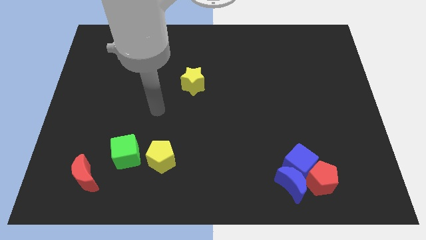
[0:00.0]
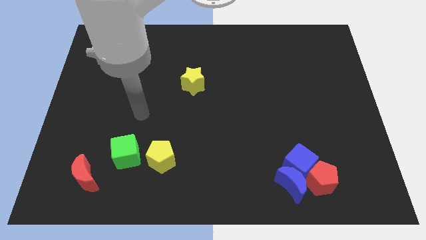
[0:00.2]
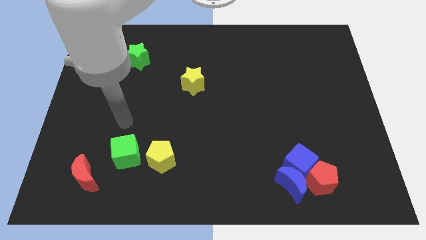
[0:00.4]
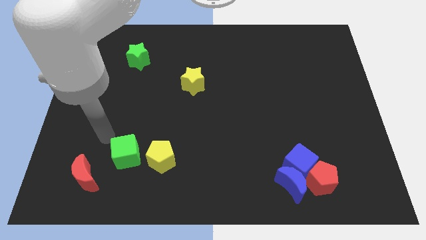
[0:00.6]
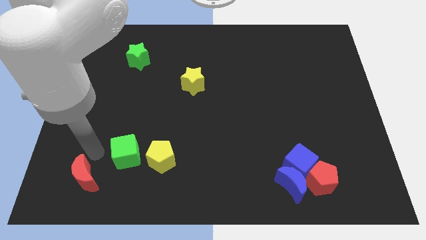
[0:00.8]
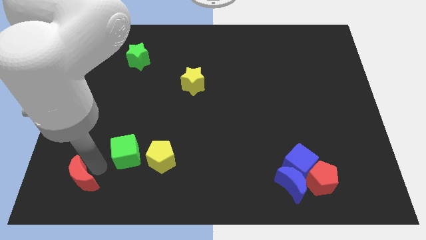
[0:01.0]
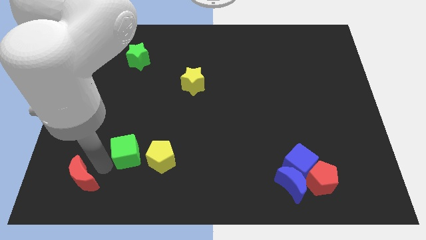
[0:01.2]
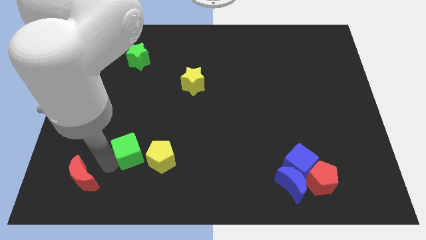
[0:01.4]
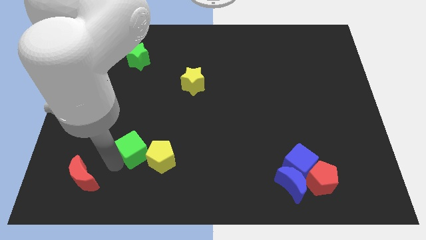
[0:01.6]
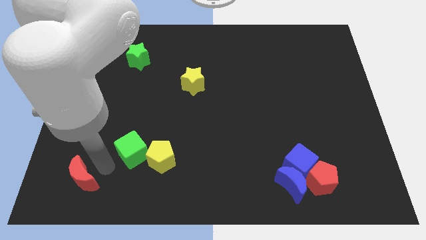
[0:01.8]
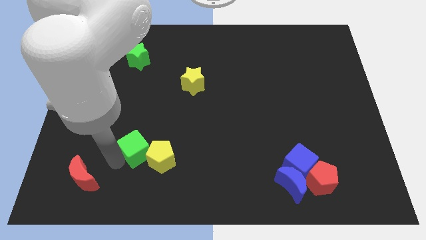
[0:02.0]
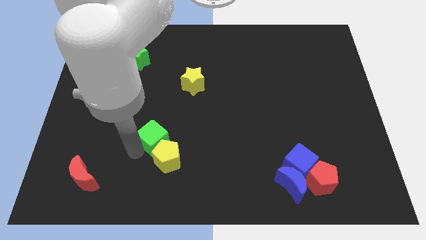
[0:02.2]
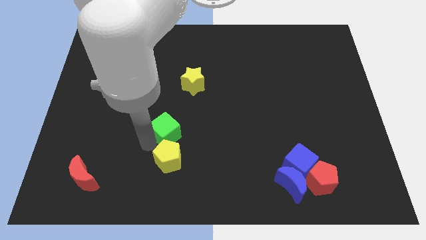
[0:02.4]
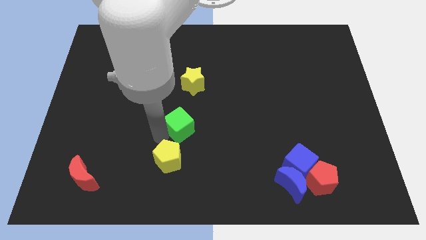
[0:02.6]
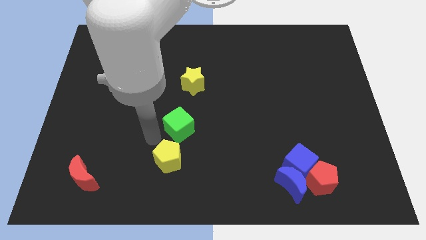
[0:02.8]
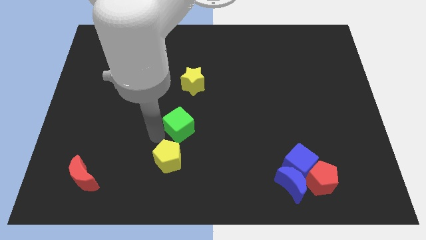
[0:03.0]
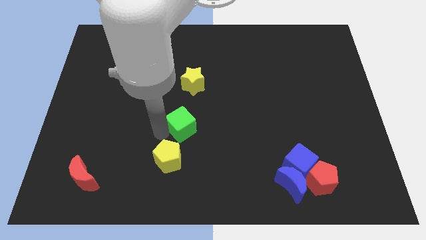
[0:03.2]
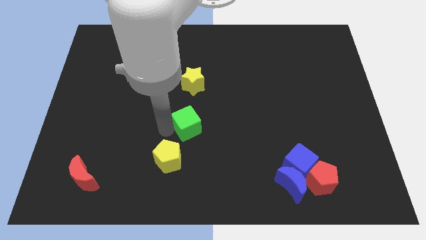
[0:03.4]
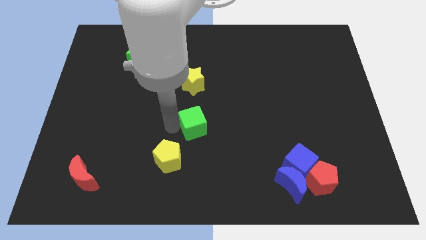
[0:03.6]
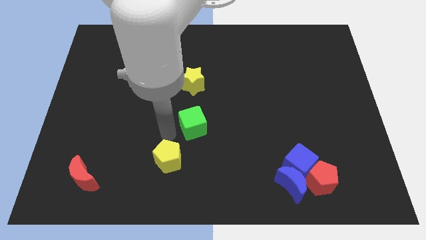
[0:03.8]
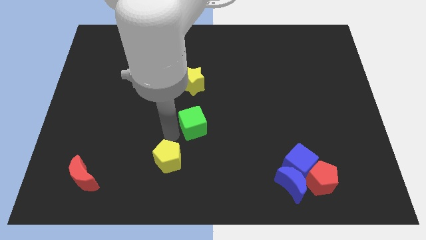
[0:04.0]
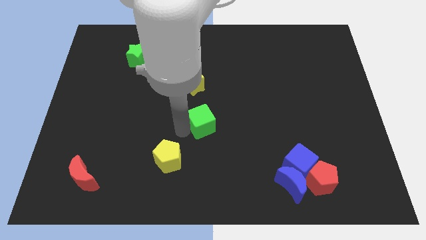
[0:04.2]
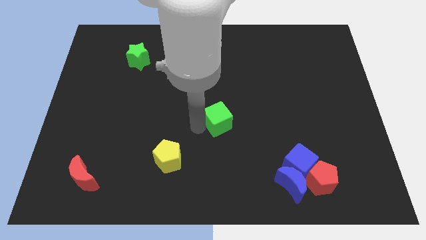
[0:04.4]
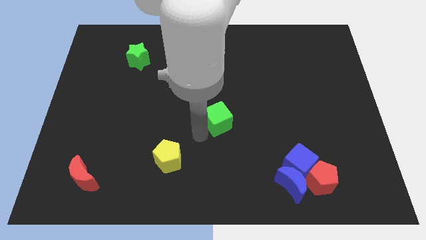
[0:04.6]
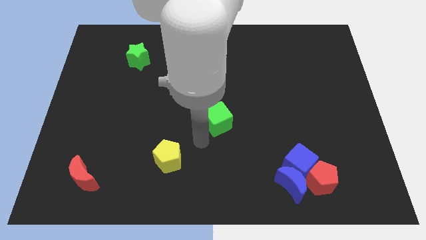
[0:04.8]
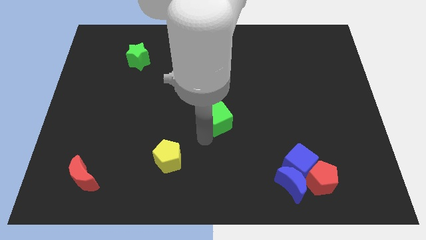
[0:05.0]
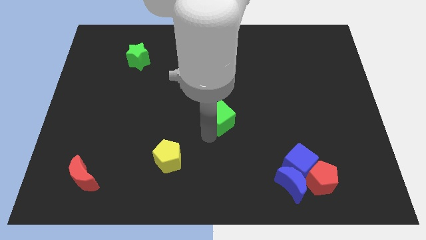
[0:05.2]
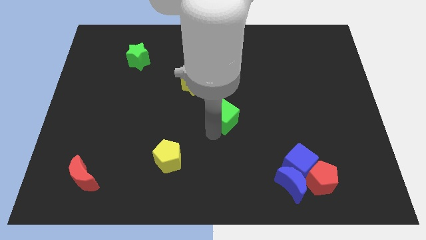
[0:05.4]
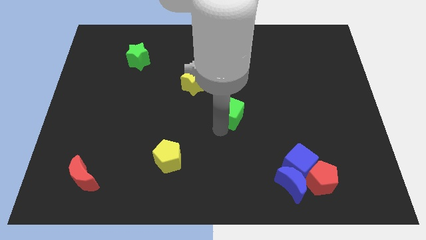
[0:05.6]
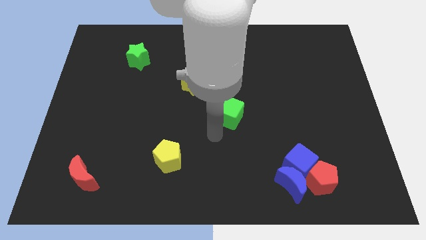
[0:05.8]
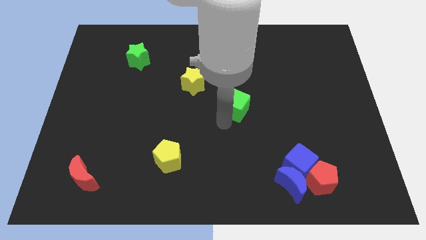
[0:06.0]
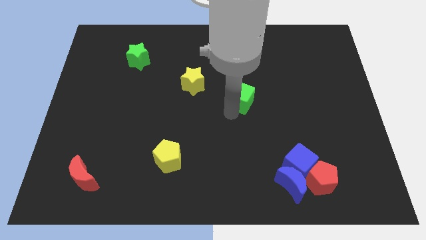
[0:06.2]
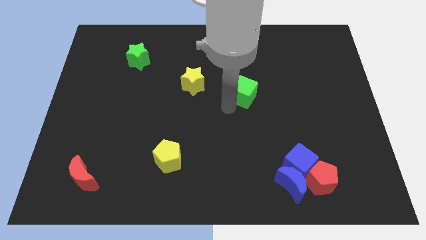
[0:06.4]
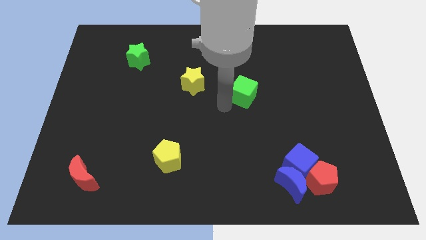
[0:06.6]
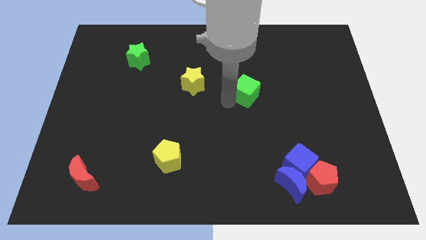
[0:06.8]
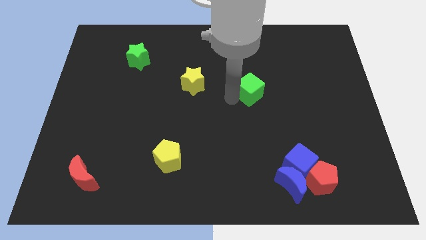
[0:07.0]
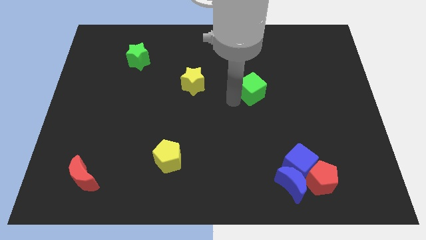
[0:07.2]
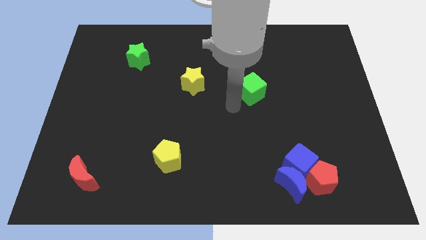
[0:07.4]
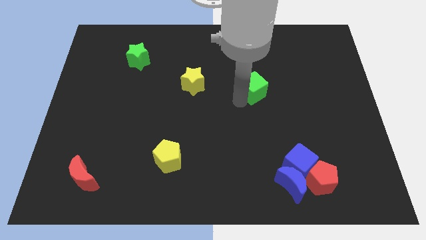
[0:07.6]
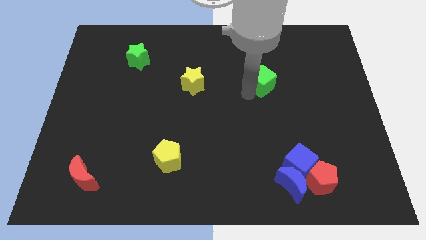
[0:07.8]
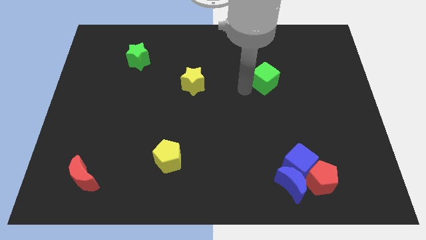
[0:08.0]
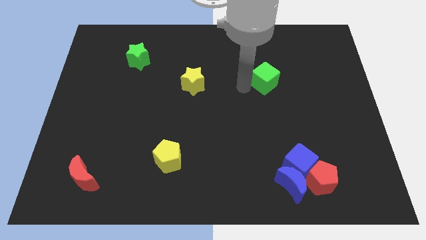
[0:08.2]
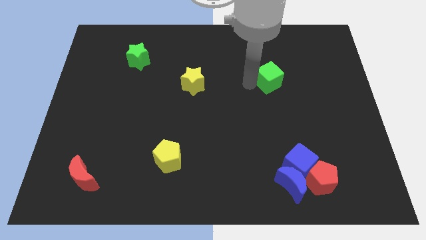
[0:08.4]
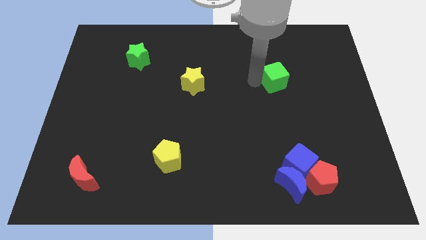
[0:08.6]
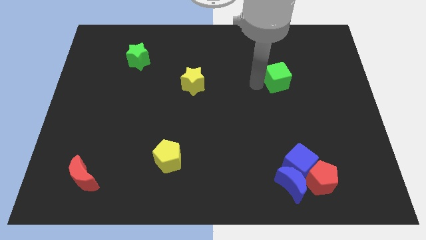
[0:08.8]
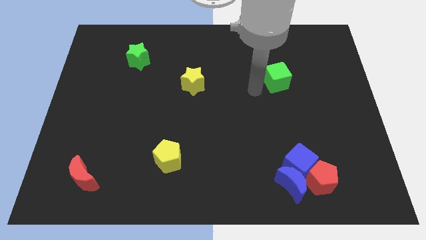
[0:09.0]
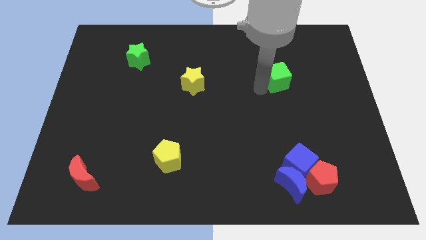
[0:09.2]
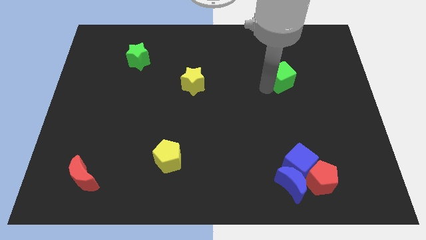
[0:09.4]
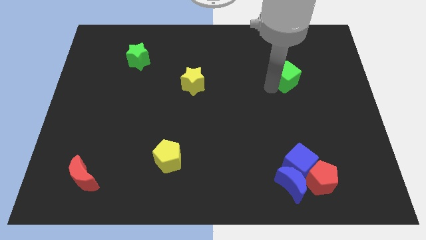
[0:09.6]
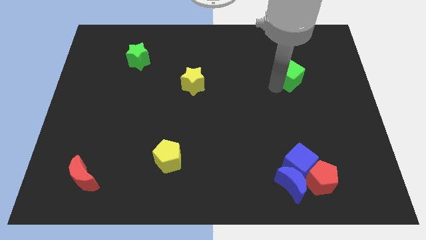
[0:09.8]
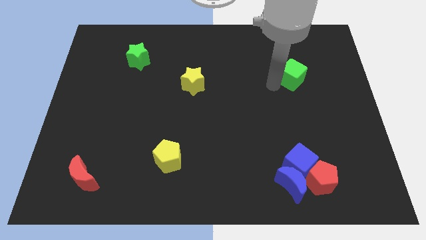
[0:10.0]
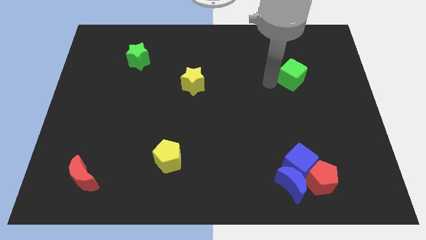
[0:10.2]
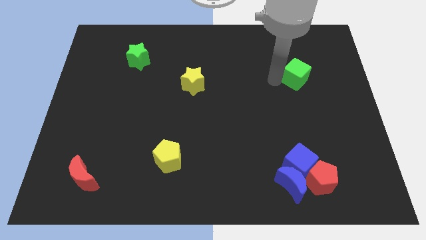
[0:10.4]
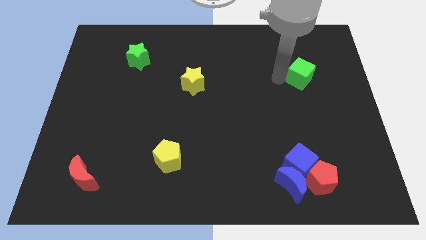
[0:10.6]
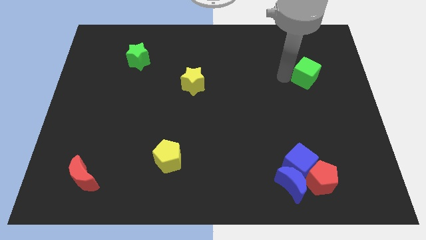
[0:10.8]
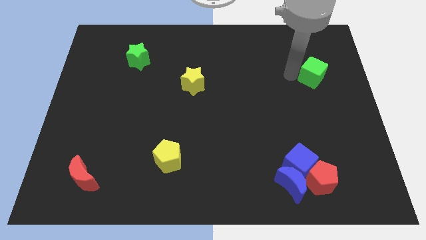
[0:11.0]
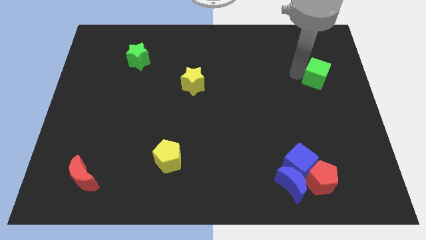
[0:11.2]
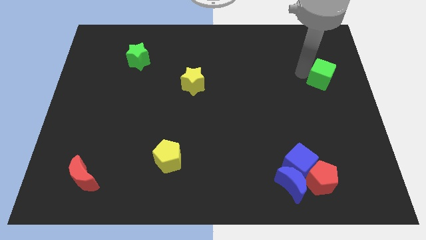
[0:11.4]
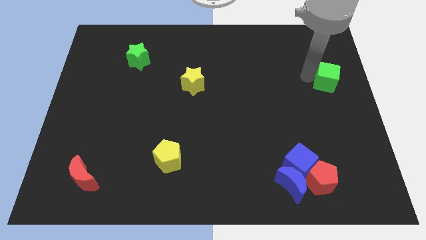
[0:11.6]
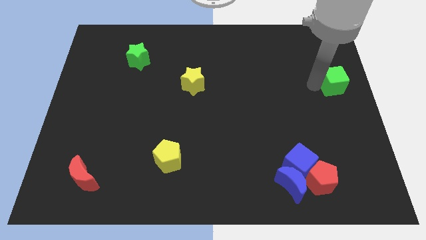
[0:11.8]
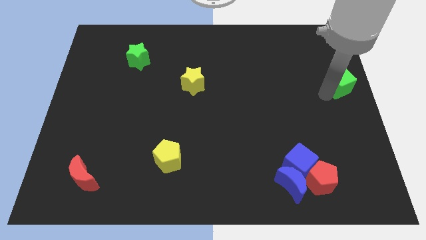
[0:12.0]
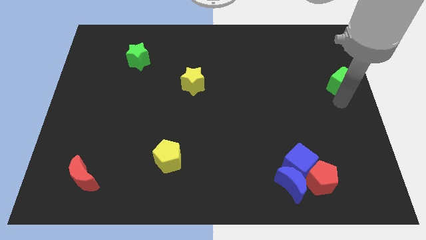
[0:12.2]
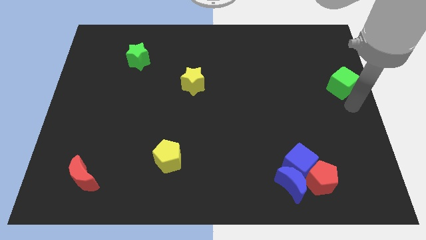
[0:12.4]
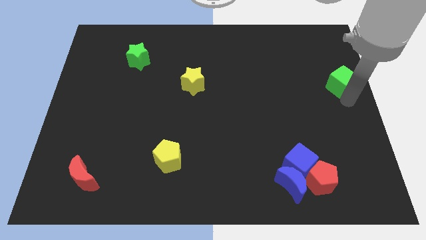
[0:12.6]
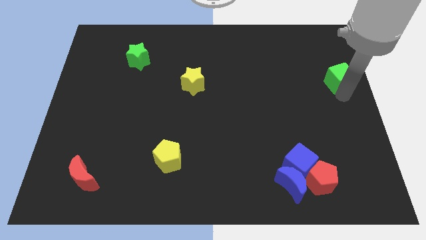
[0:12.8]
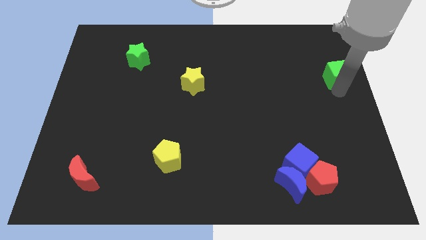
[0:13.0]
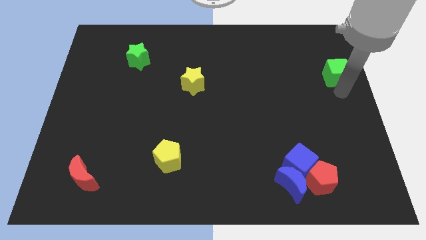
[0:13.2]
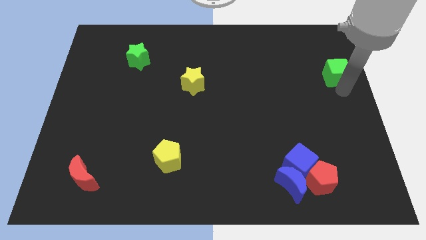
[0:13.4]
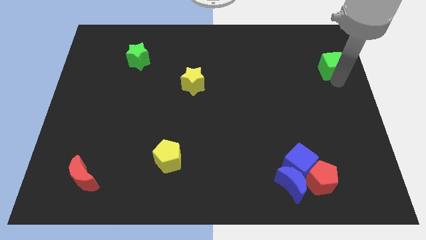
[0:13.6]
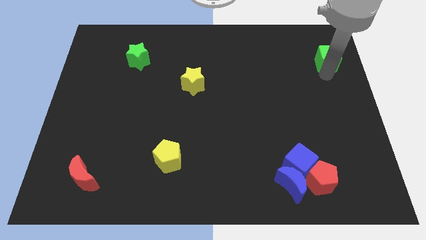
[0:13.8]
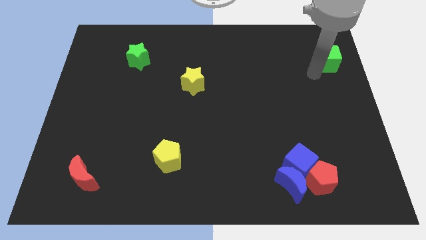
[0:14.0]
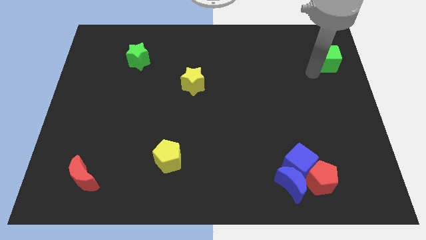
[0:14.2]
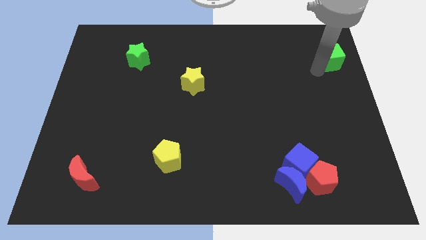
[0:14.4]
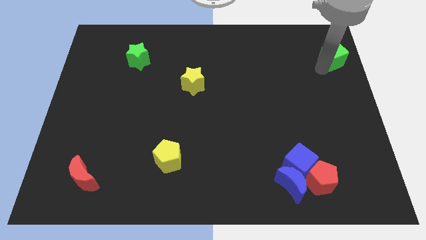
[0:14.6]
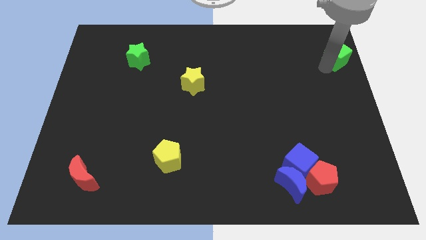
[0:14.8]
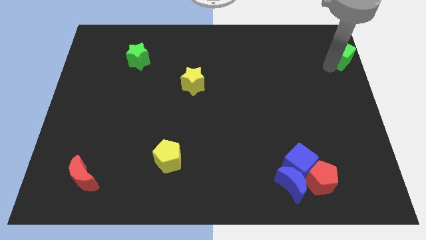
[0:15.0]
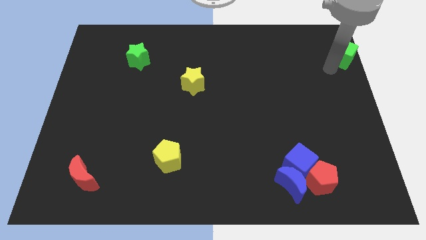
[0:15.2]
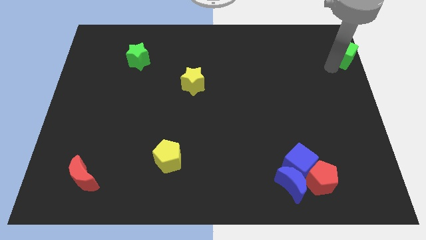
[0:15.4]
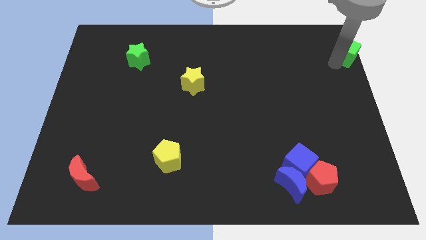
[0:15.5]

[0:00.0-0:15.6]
move the green cube to the top right of the board
